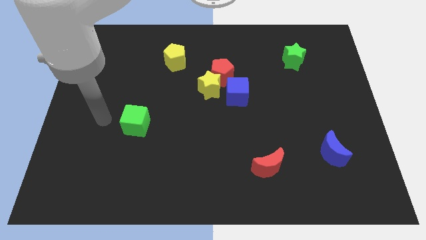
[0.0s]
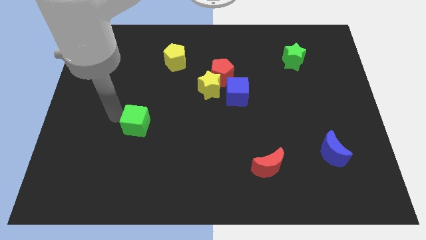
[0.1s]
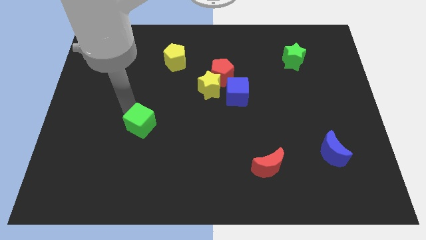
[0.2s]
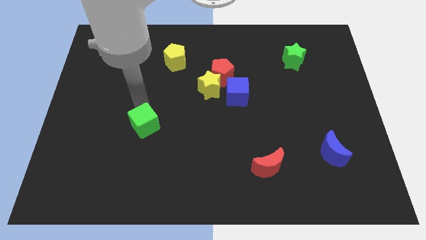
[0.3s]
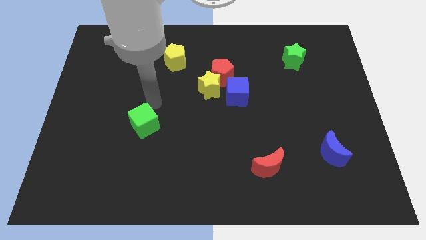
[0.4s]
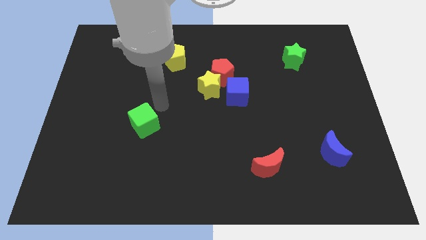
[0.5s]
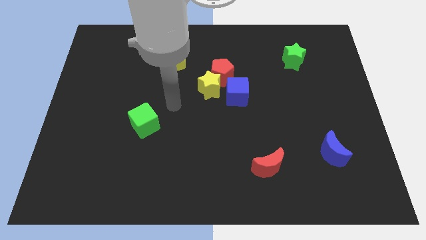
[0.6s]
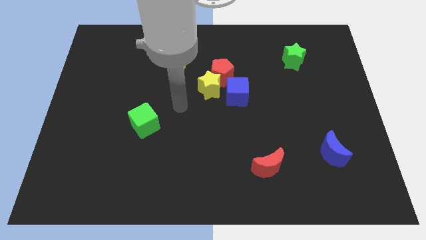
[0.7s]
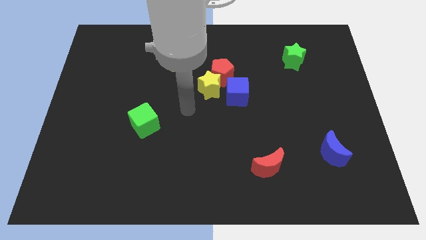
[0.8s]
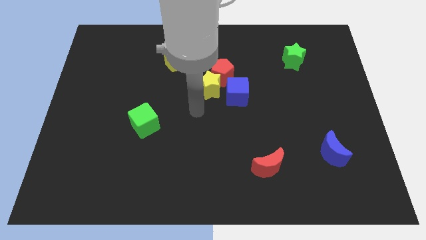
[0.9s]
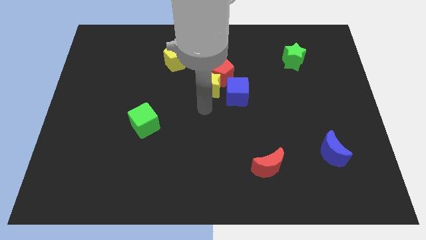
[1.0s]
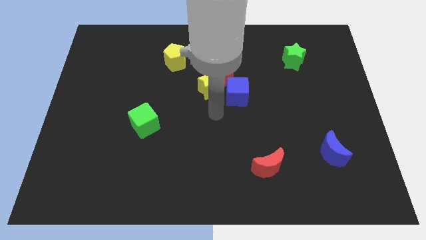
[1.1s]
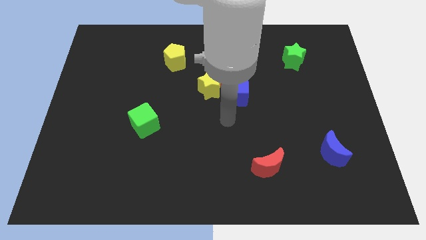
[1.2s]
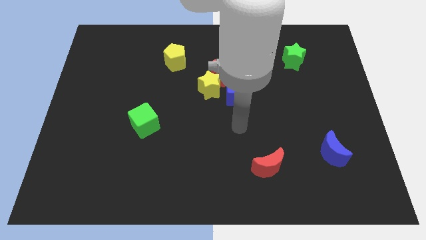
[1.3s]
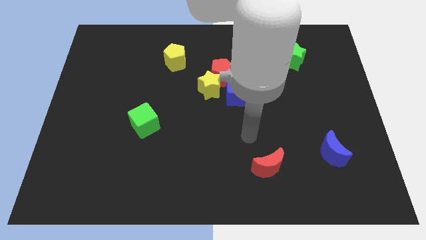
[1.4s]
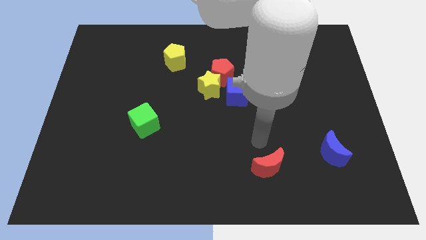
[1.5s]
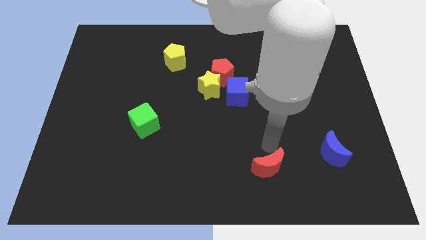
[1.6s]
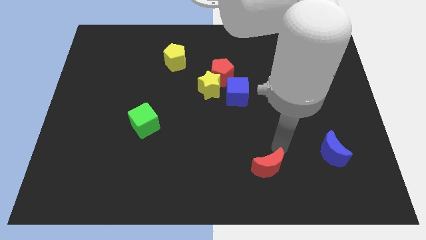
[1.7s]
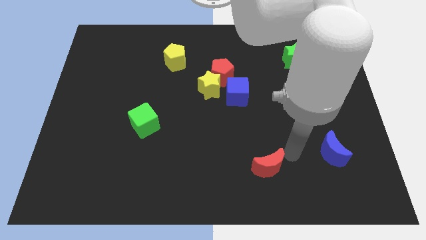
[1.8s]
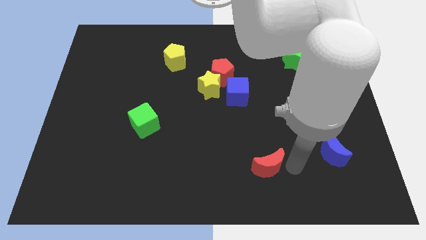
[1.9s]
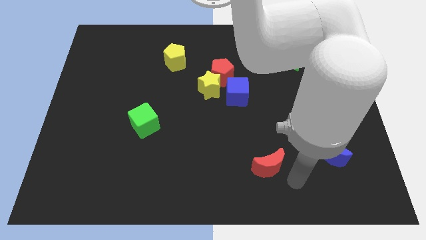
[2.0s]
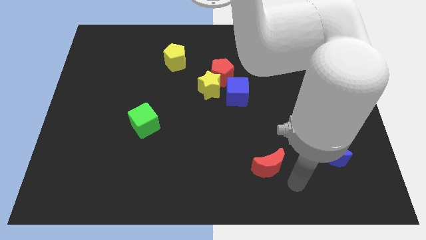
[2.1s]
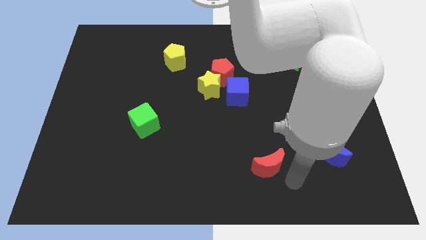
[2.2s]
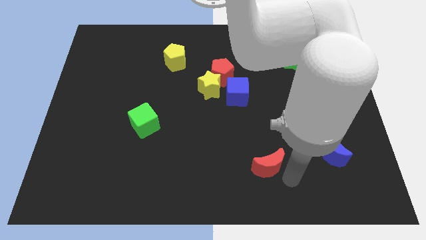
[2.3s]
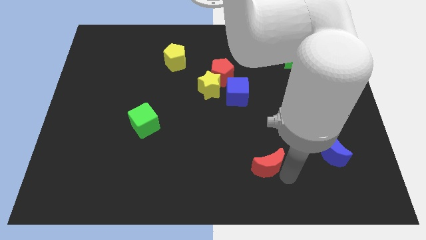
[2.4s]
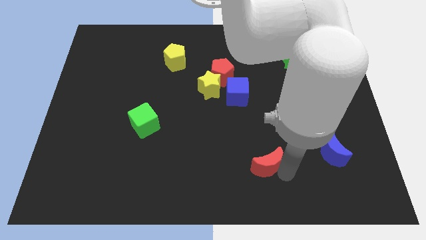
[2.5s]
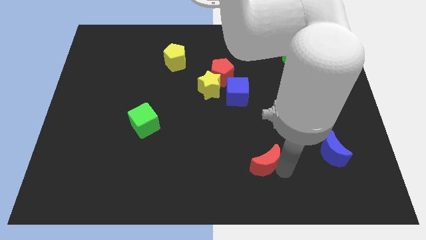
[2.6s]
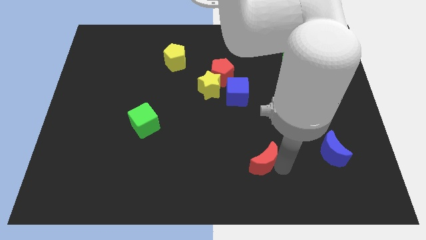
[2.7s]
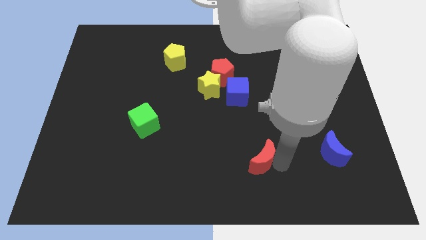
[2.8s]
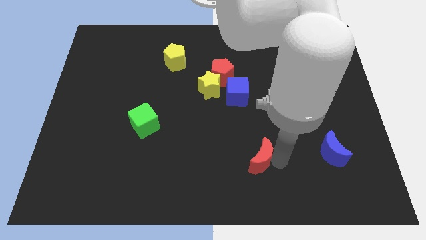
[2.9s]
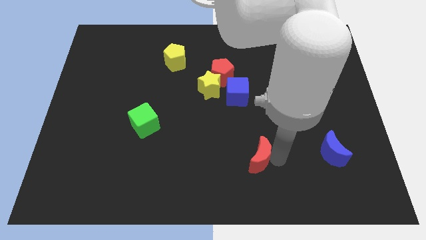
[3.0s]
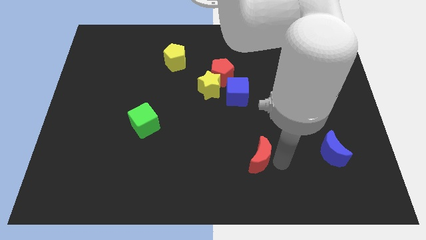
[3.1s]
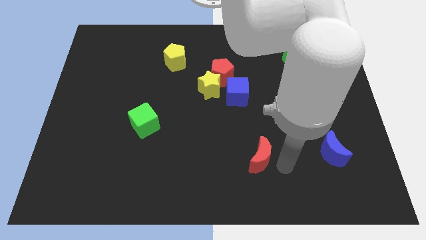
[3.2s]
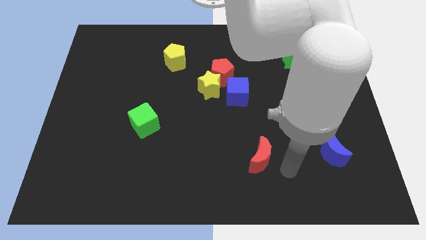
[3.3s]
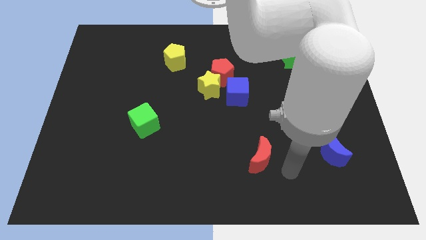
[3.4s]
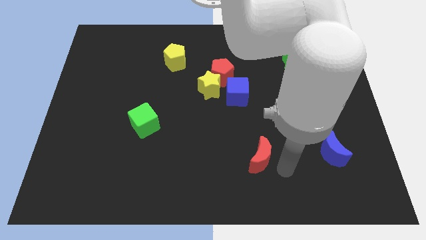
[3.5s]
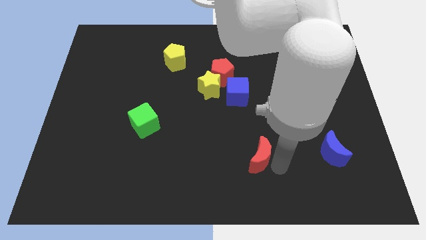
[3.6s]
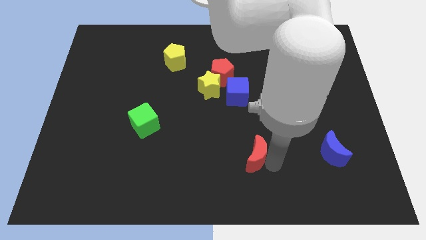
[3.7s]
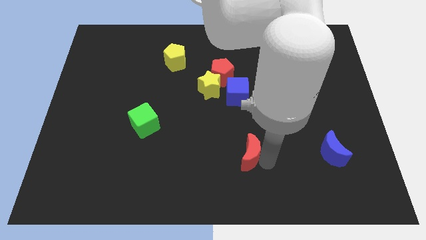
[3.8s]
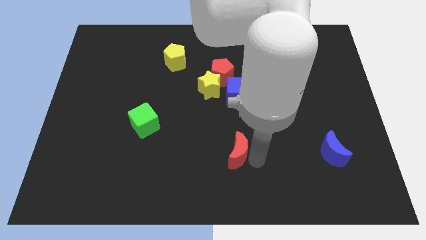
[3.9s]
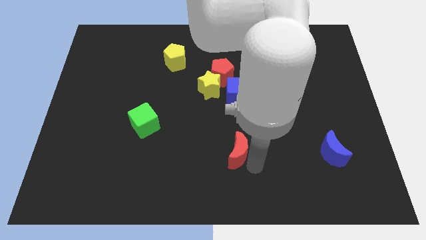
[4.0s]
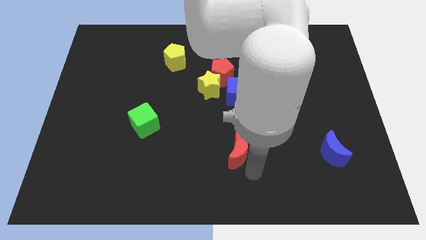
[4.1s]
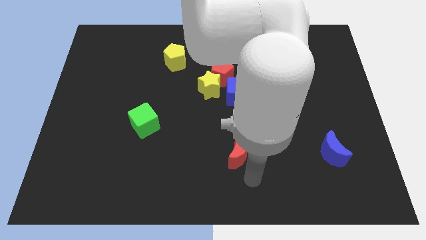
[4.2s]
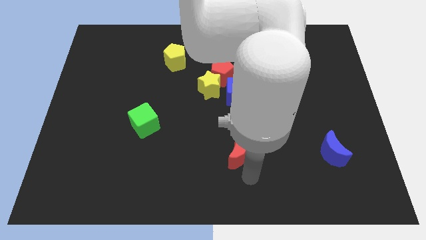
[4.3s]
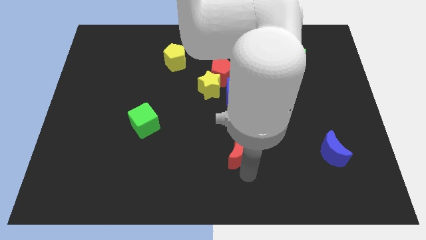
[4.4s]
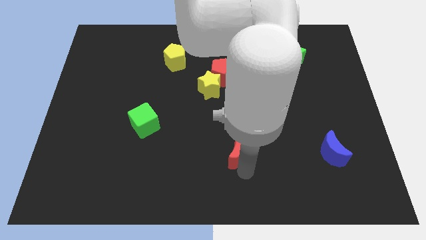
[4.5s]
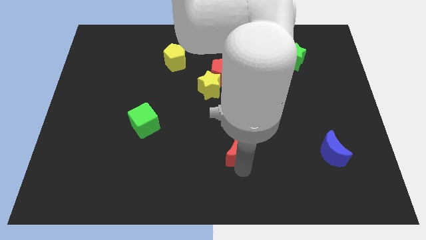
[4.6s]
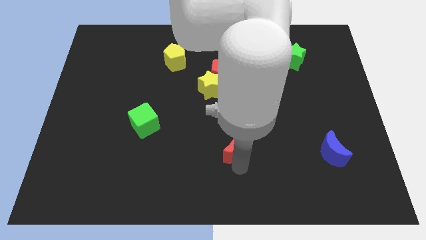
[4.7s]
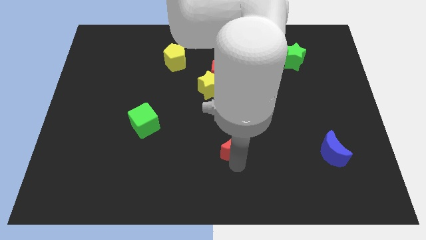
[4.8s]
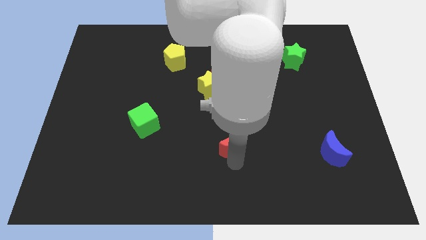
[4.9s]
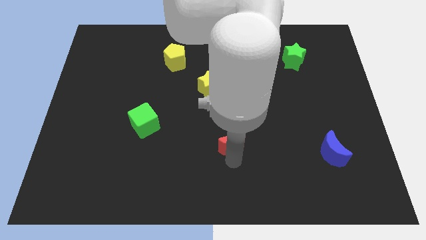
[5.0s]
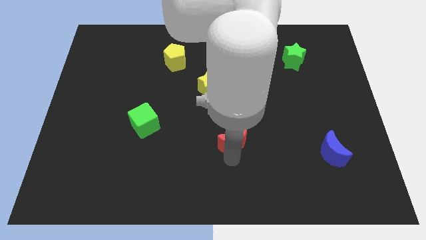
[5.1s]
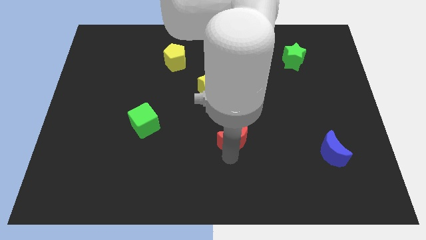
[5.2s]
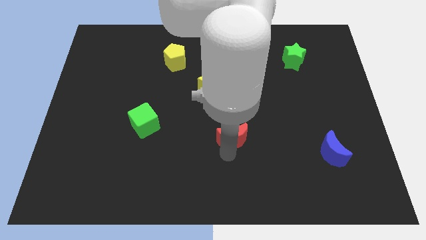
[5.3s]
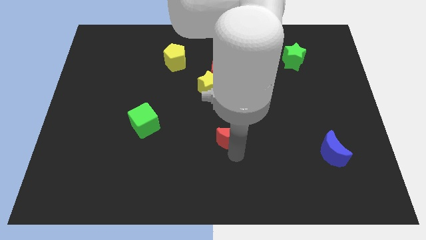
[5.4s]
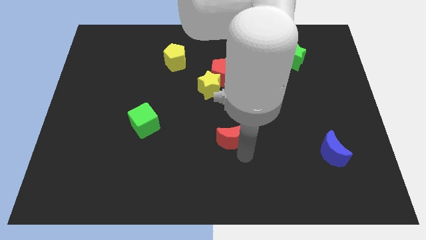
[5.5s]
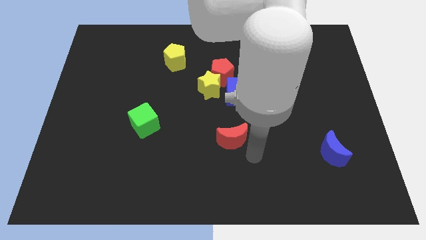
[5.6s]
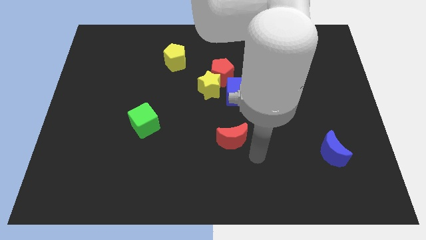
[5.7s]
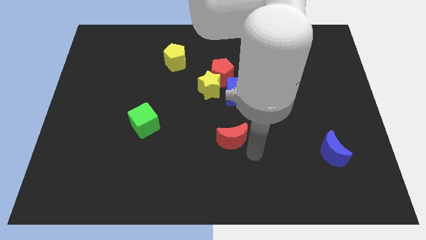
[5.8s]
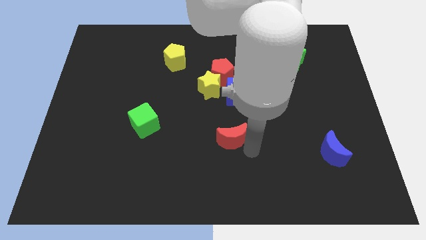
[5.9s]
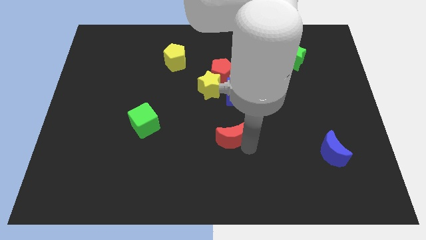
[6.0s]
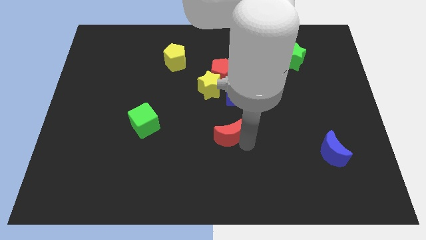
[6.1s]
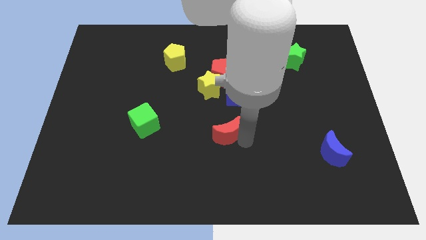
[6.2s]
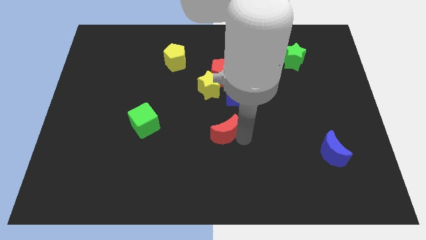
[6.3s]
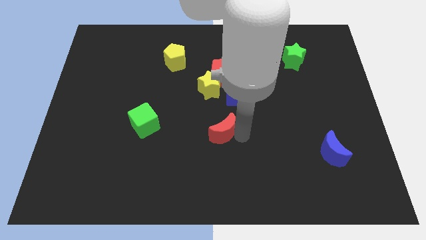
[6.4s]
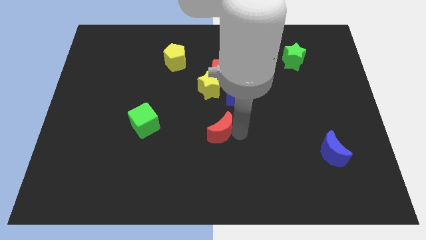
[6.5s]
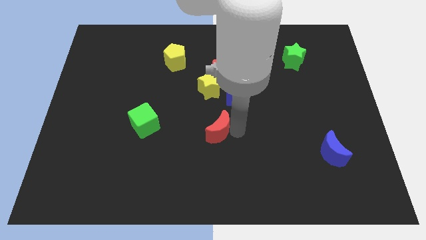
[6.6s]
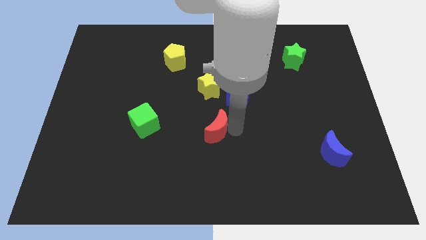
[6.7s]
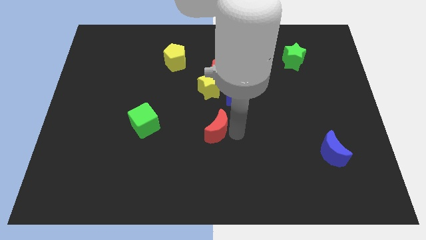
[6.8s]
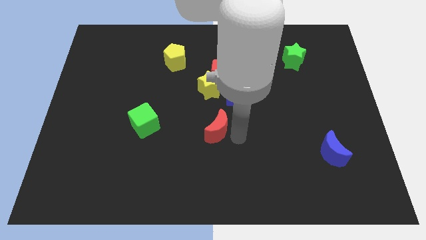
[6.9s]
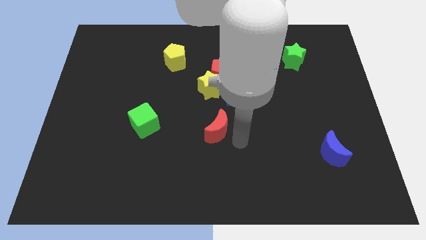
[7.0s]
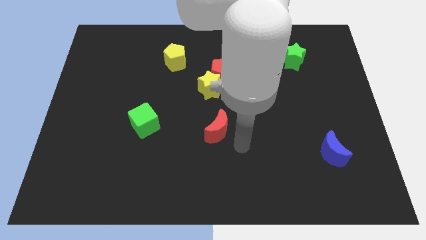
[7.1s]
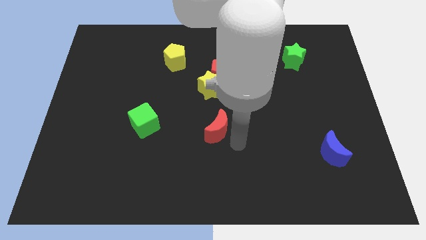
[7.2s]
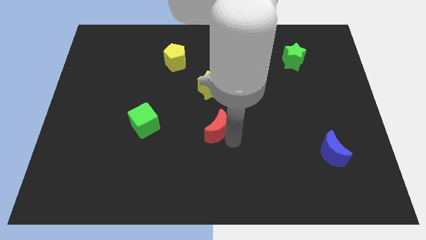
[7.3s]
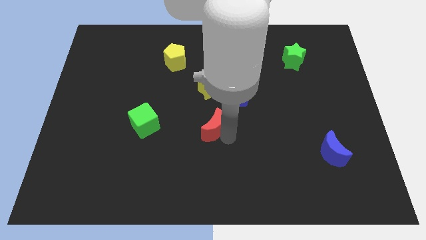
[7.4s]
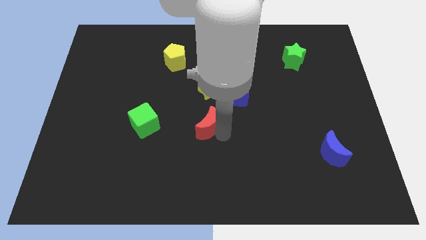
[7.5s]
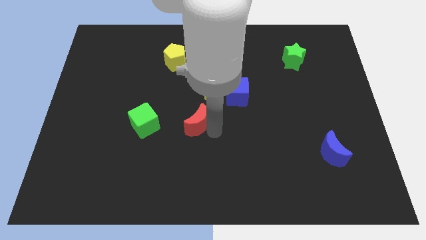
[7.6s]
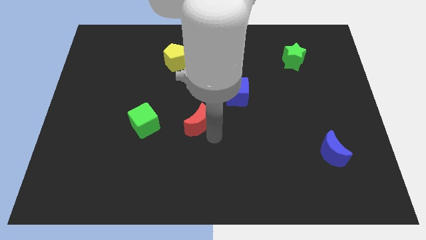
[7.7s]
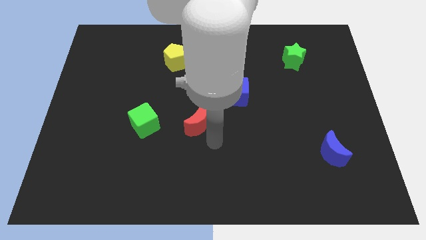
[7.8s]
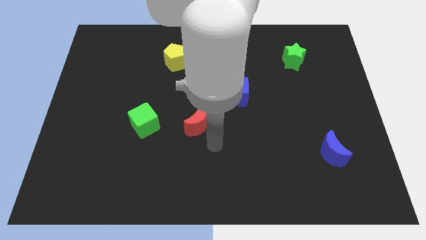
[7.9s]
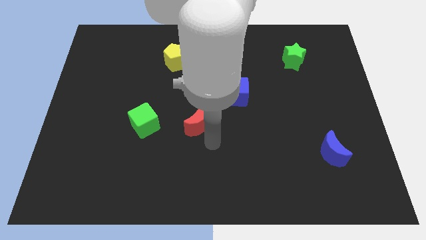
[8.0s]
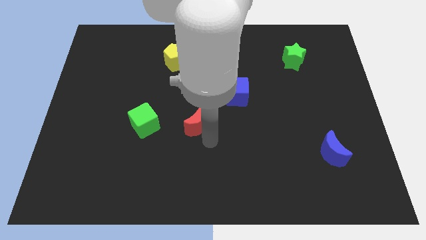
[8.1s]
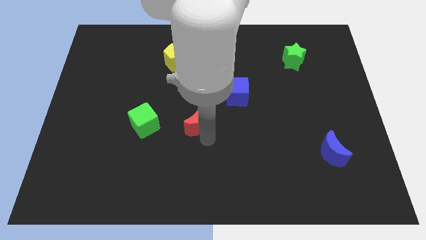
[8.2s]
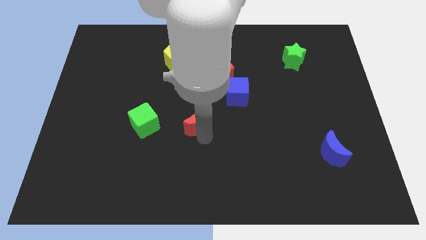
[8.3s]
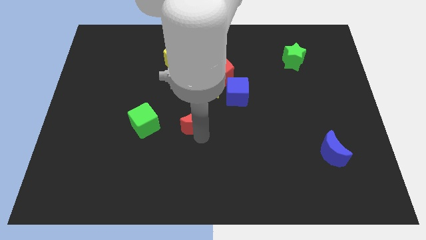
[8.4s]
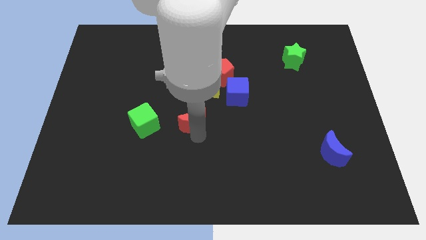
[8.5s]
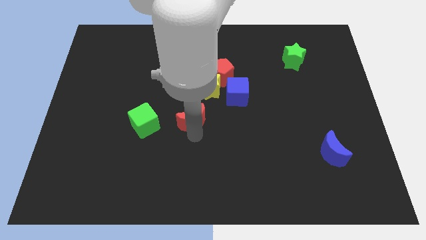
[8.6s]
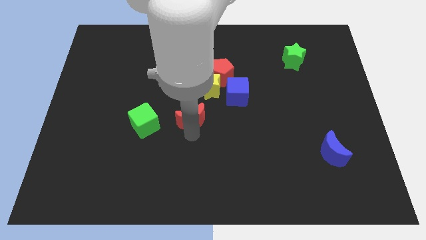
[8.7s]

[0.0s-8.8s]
move the red moon upwards and to the left
